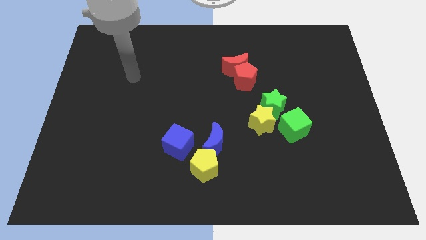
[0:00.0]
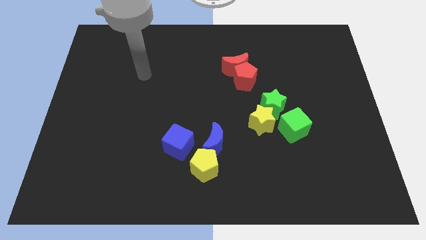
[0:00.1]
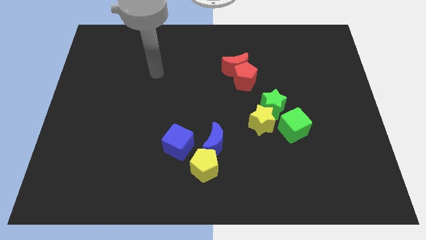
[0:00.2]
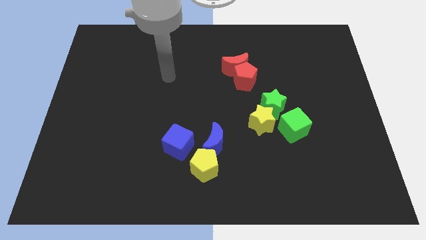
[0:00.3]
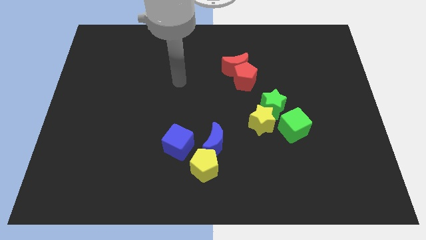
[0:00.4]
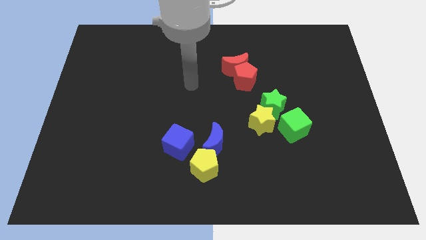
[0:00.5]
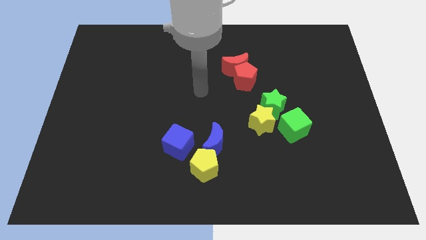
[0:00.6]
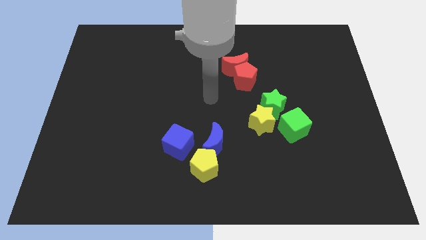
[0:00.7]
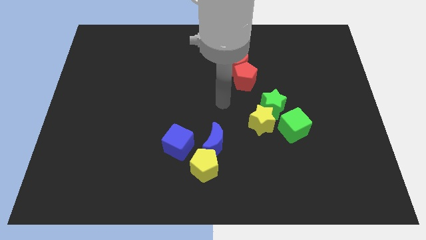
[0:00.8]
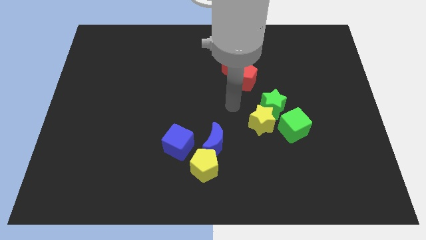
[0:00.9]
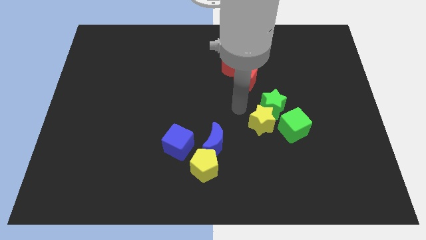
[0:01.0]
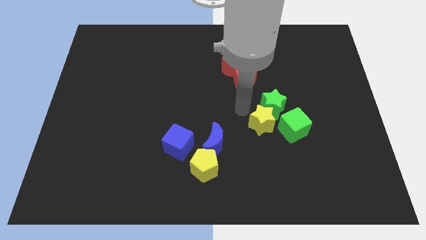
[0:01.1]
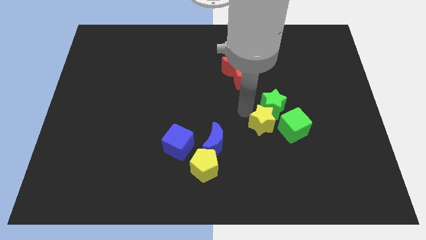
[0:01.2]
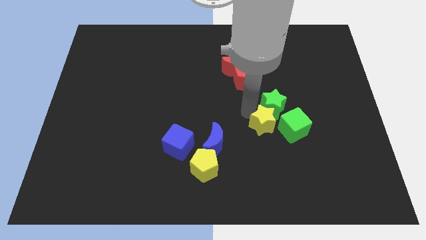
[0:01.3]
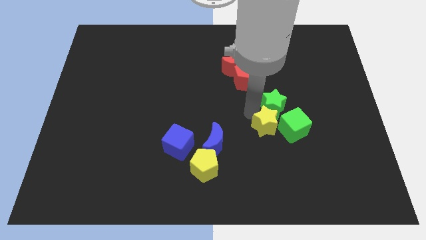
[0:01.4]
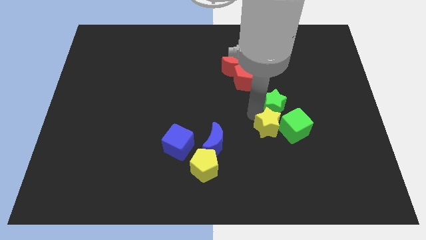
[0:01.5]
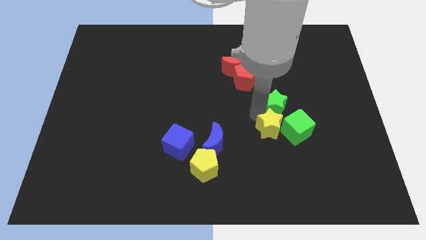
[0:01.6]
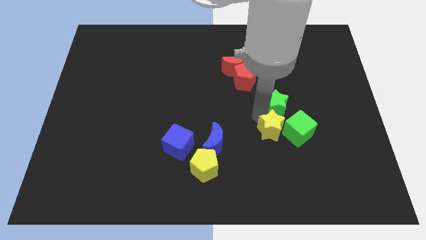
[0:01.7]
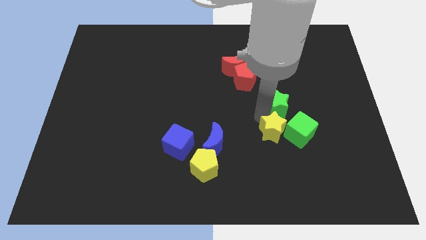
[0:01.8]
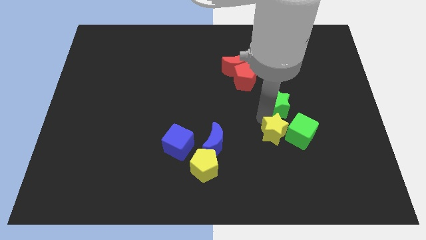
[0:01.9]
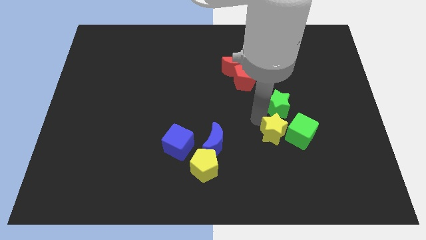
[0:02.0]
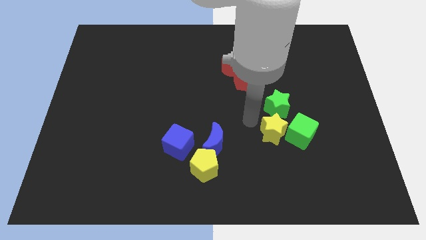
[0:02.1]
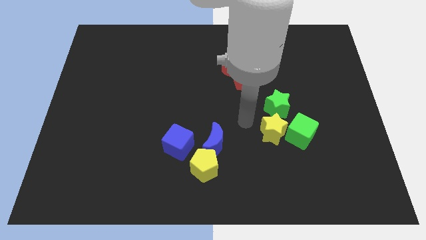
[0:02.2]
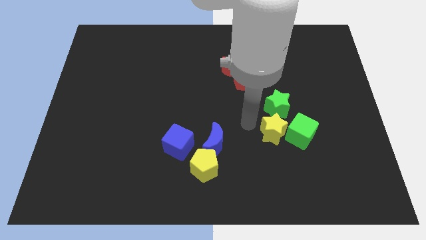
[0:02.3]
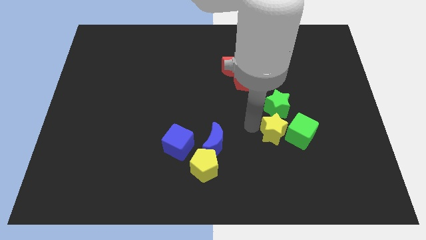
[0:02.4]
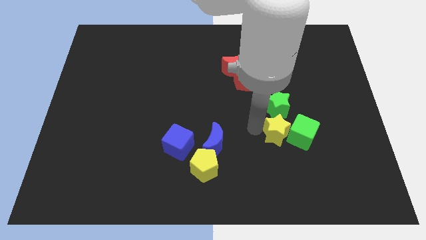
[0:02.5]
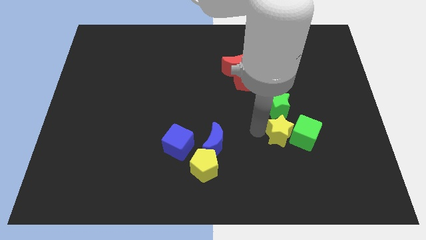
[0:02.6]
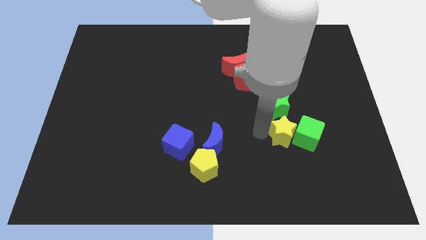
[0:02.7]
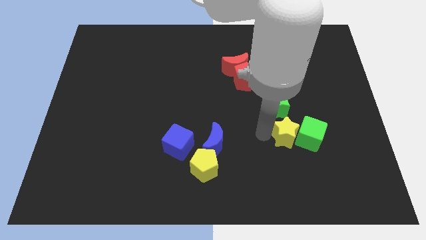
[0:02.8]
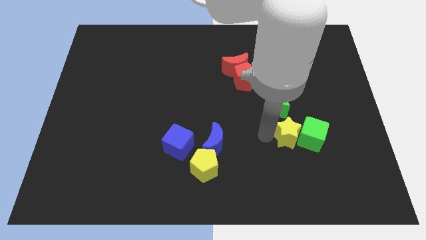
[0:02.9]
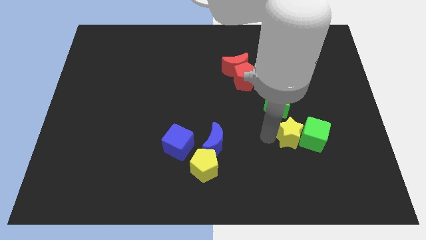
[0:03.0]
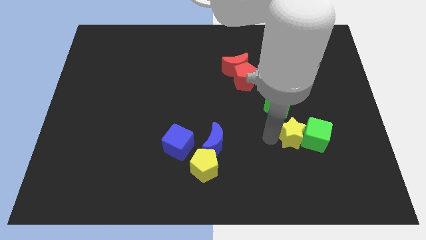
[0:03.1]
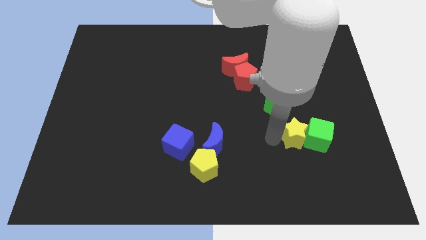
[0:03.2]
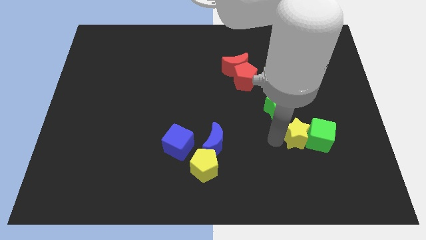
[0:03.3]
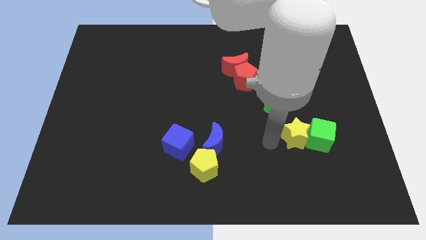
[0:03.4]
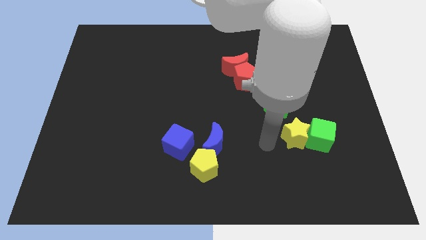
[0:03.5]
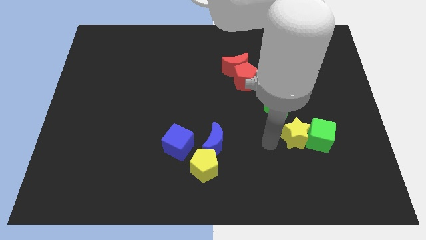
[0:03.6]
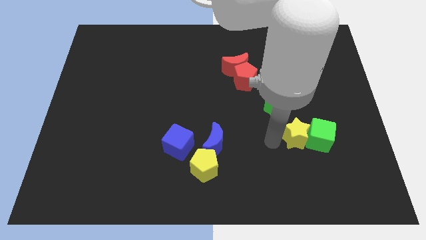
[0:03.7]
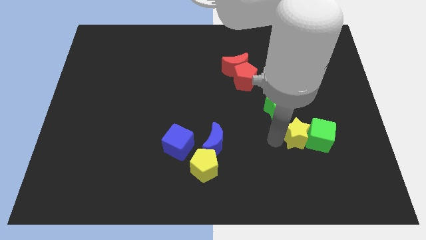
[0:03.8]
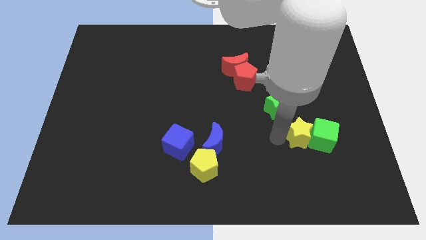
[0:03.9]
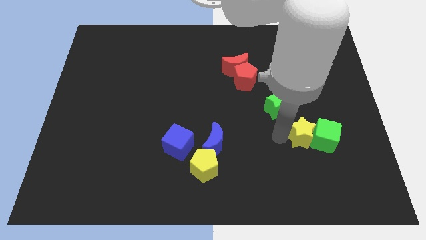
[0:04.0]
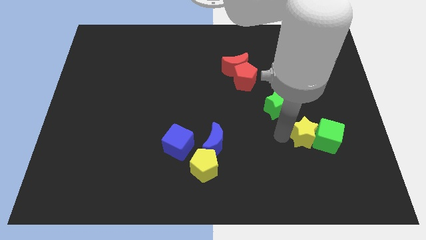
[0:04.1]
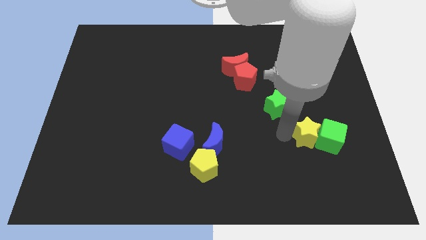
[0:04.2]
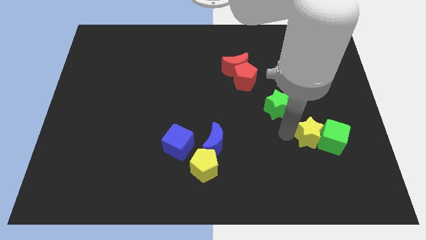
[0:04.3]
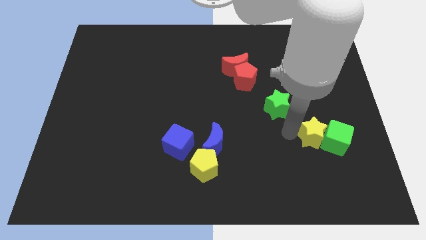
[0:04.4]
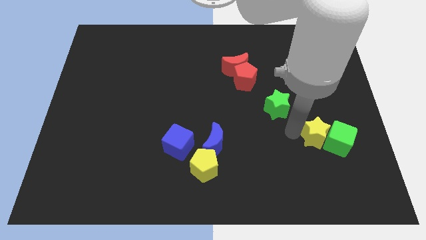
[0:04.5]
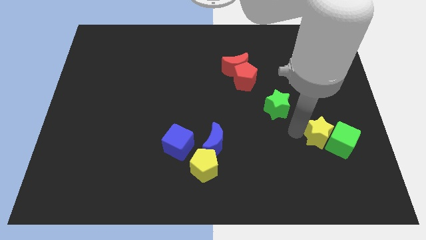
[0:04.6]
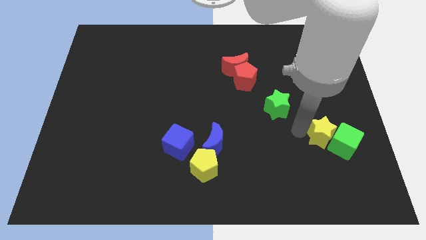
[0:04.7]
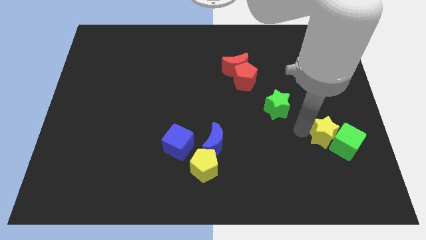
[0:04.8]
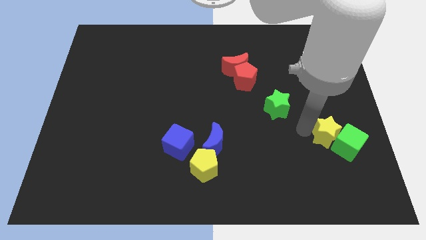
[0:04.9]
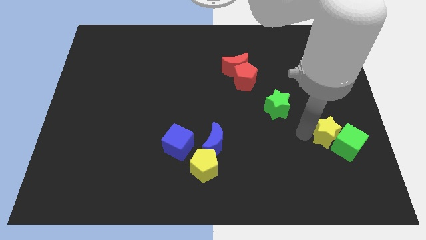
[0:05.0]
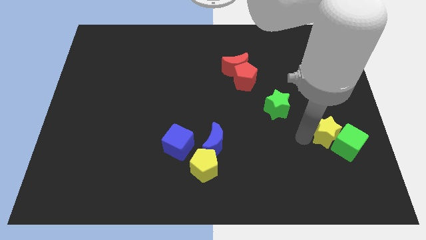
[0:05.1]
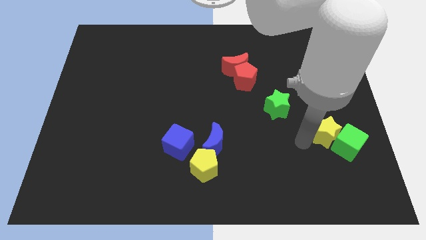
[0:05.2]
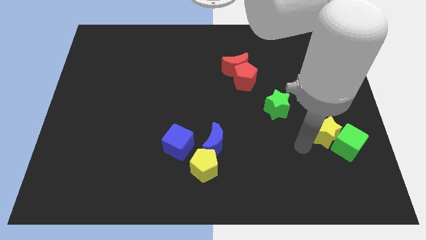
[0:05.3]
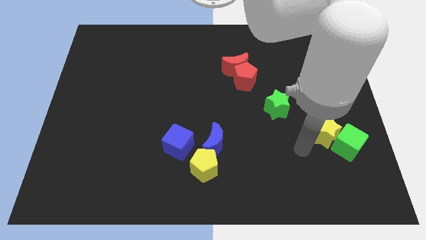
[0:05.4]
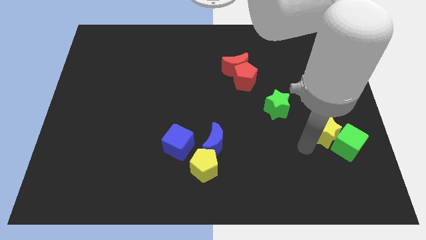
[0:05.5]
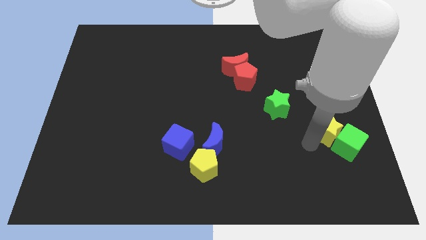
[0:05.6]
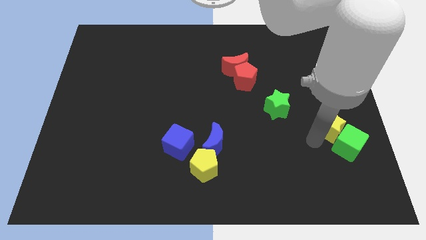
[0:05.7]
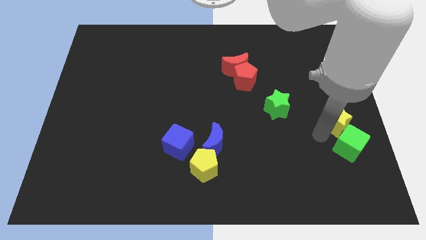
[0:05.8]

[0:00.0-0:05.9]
slide the yellow star to the center right
